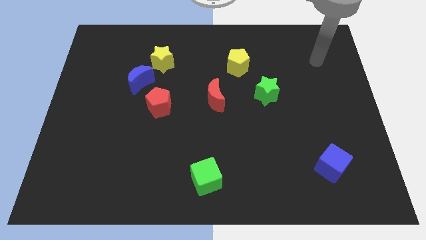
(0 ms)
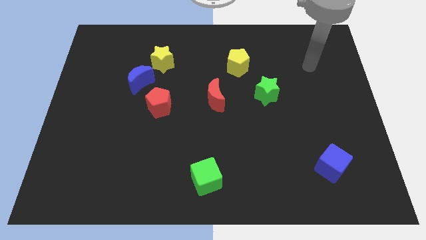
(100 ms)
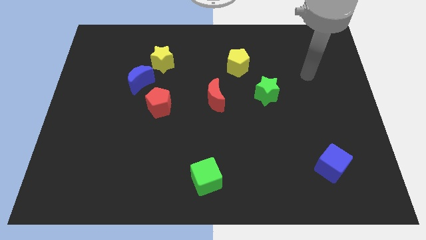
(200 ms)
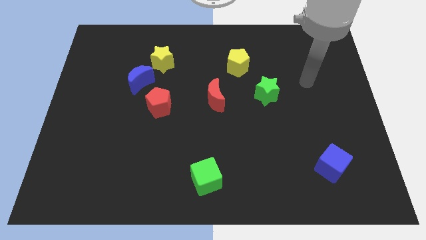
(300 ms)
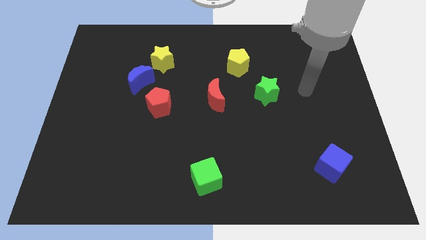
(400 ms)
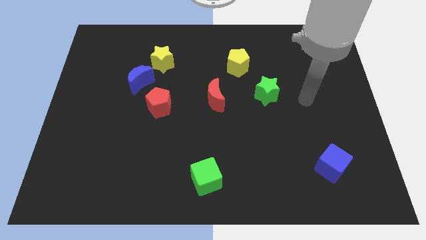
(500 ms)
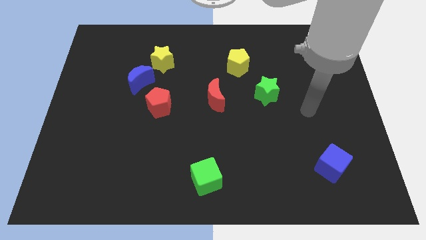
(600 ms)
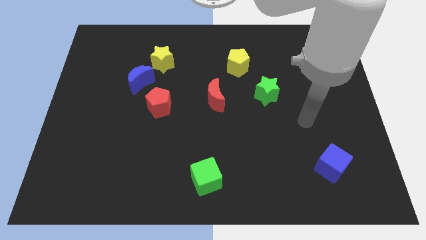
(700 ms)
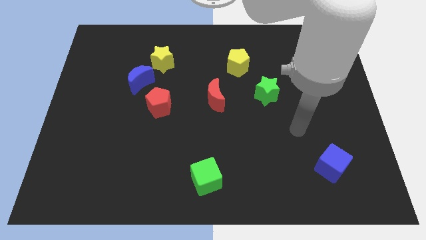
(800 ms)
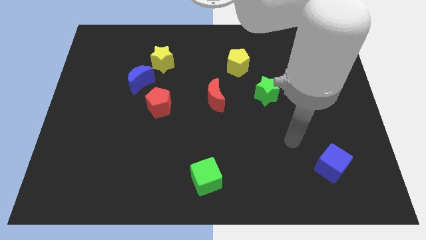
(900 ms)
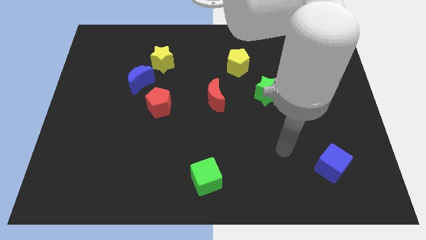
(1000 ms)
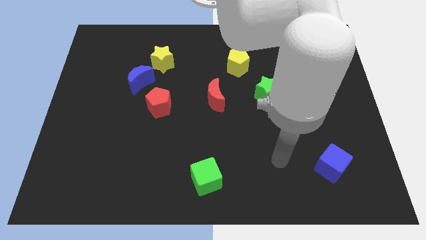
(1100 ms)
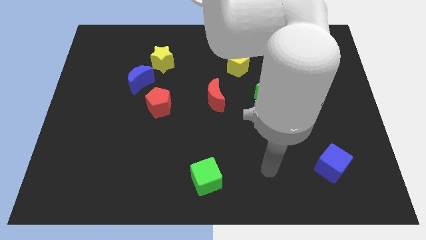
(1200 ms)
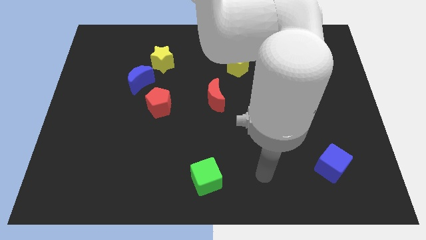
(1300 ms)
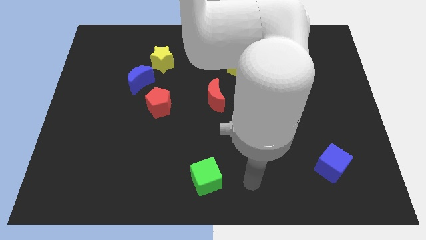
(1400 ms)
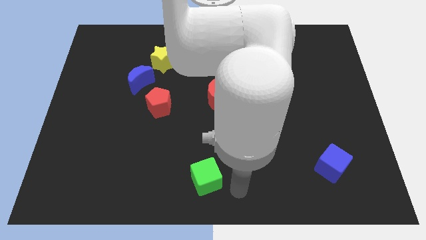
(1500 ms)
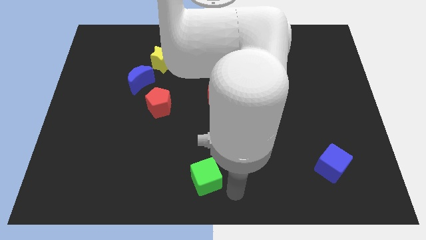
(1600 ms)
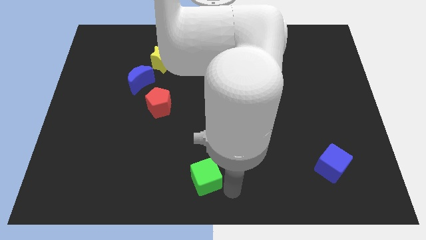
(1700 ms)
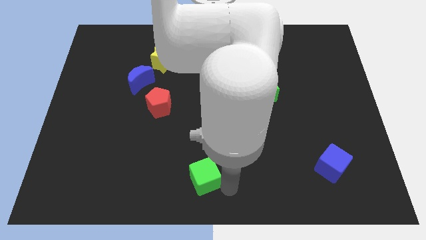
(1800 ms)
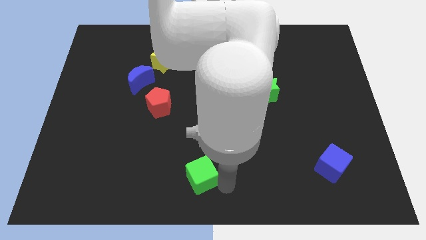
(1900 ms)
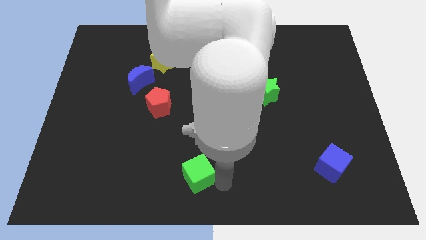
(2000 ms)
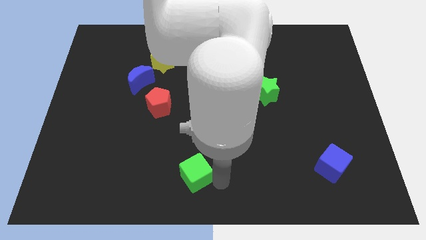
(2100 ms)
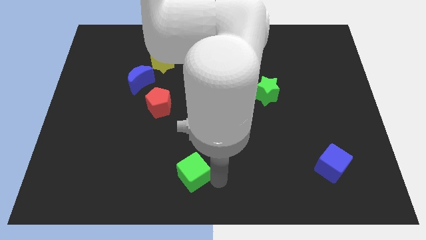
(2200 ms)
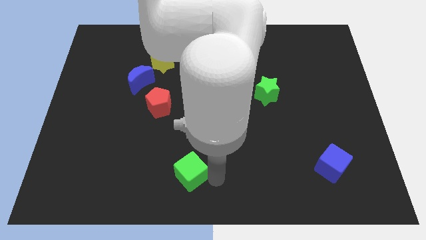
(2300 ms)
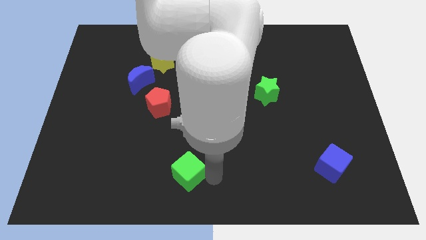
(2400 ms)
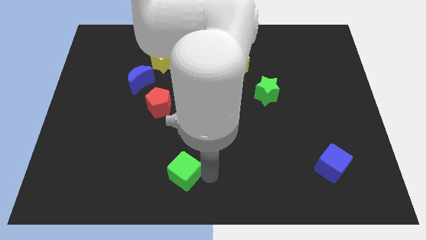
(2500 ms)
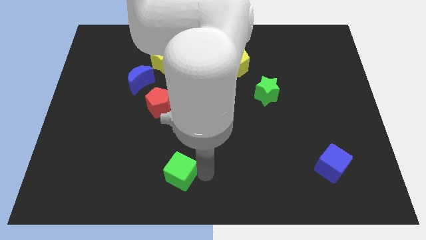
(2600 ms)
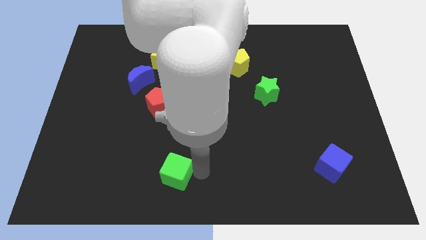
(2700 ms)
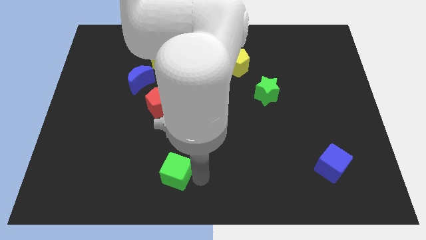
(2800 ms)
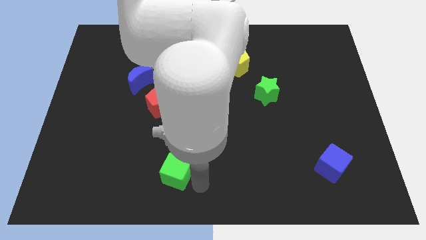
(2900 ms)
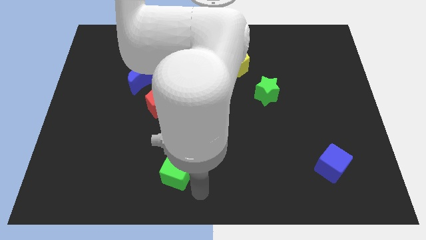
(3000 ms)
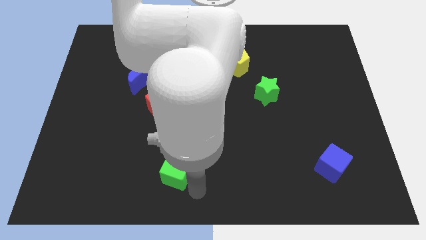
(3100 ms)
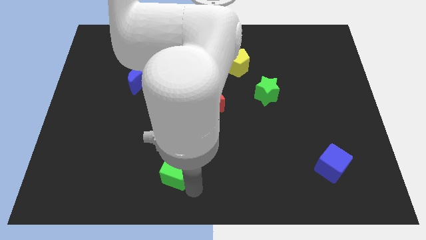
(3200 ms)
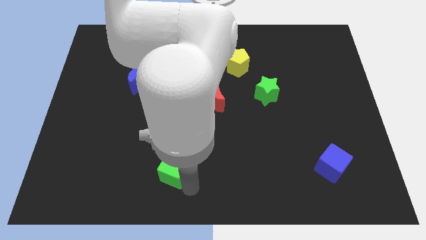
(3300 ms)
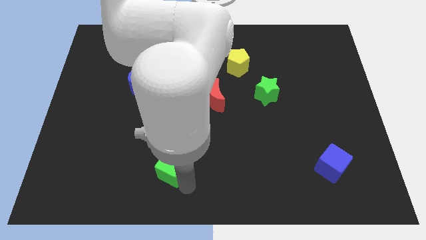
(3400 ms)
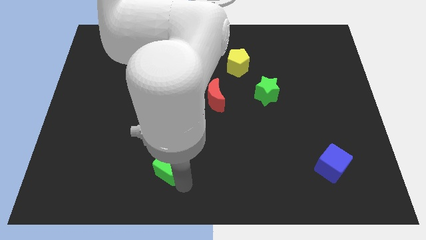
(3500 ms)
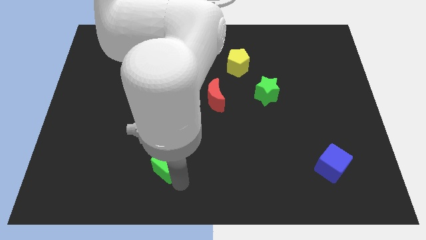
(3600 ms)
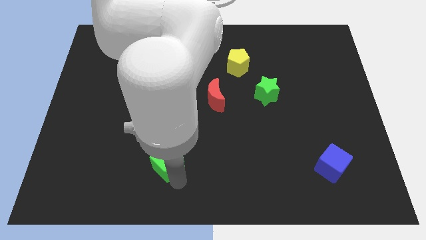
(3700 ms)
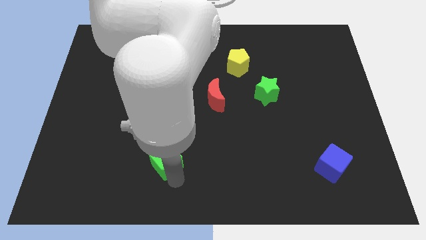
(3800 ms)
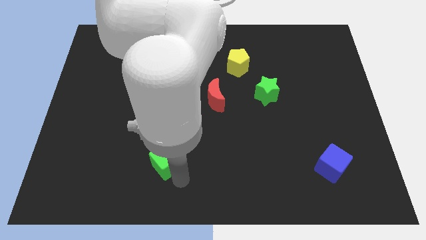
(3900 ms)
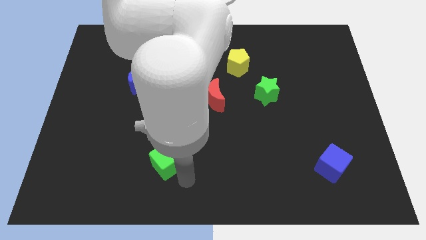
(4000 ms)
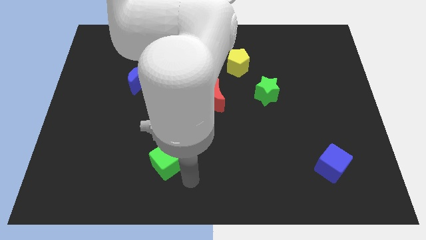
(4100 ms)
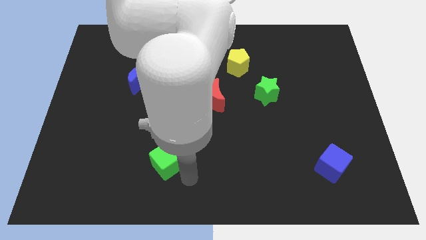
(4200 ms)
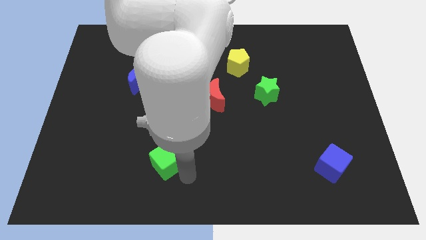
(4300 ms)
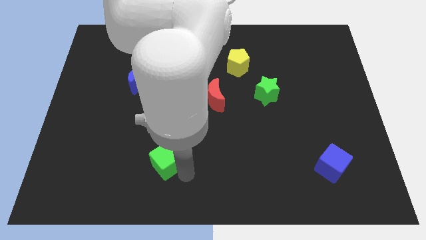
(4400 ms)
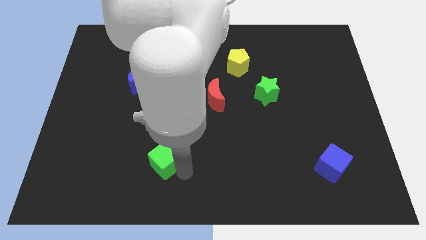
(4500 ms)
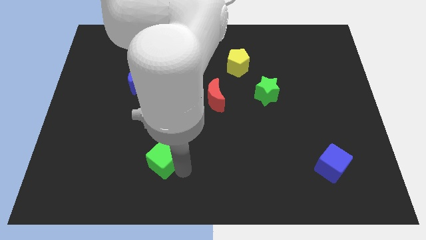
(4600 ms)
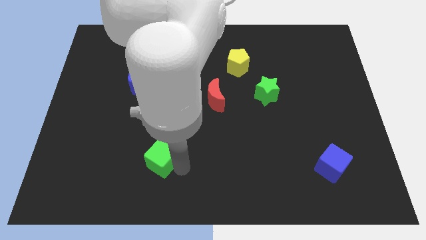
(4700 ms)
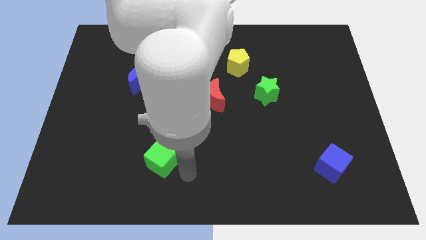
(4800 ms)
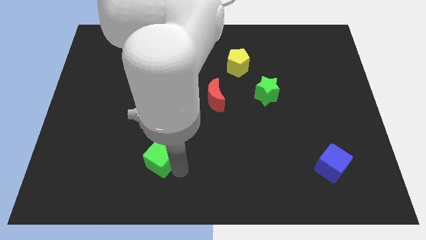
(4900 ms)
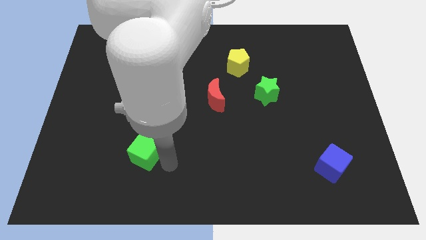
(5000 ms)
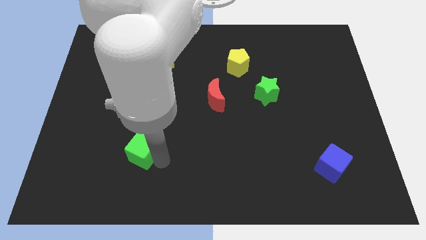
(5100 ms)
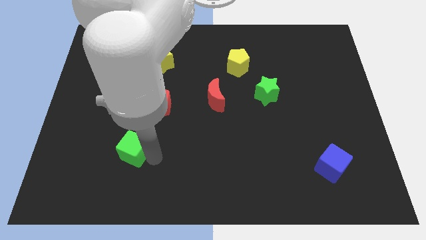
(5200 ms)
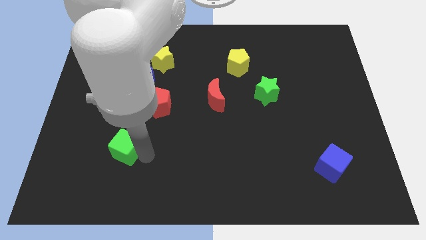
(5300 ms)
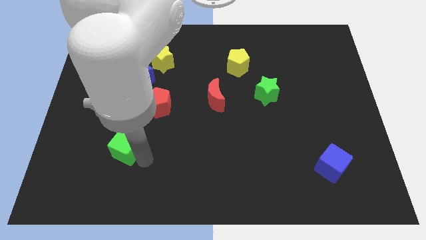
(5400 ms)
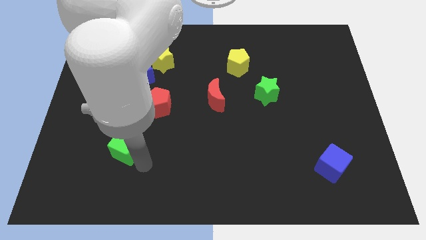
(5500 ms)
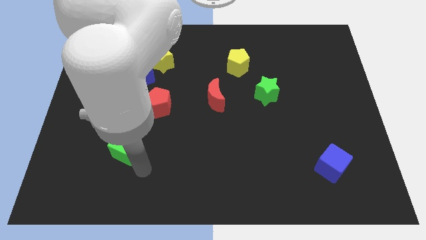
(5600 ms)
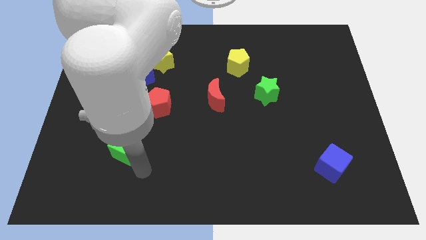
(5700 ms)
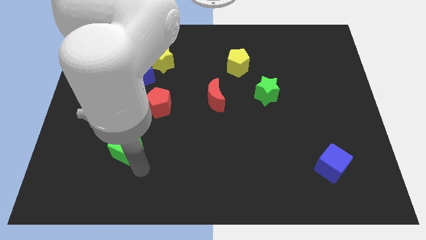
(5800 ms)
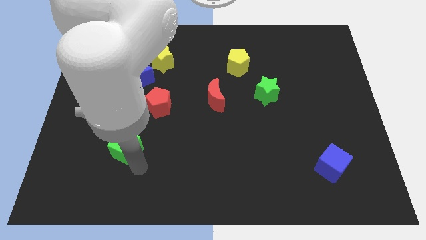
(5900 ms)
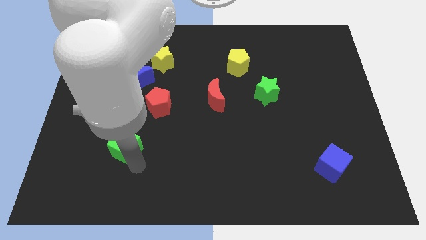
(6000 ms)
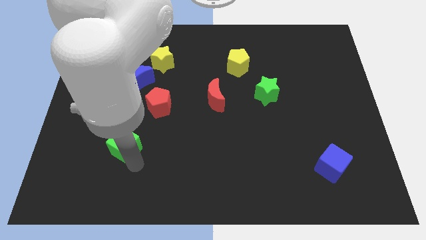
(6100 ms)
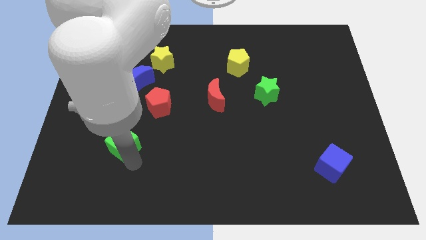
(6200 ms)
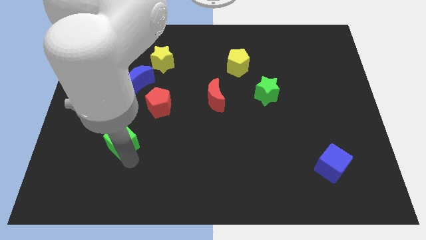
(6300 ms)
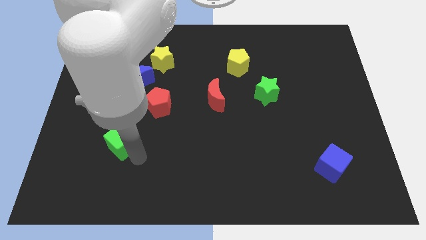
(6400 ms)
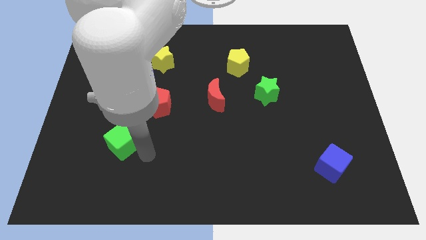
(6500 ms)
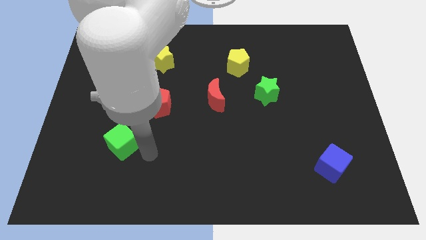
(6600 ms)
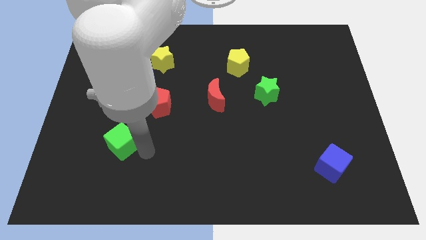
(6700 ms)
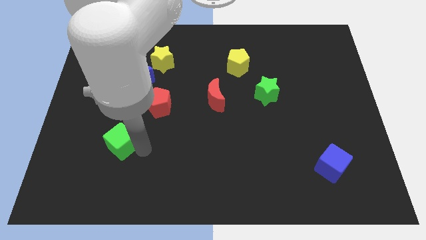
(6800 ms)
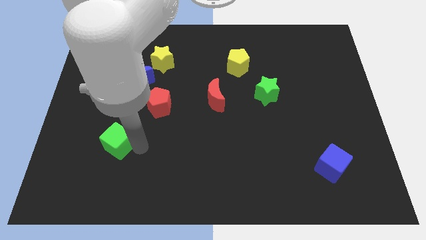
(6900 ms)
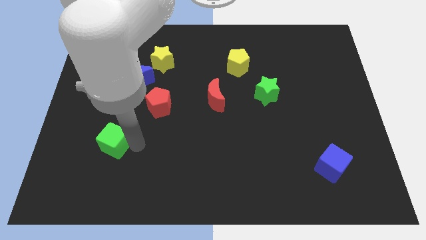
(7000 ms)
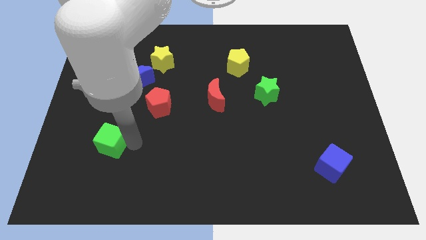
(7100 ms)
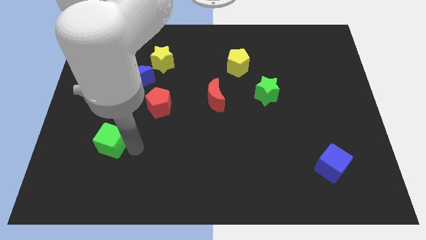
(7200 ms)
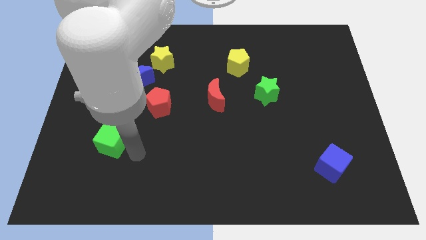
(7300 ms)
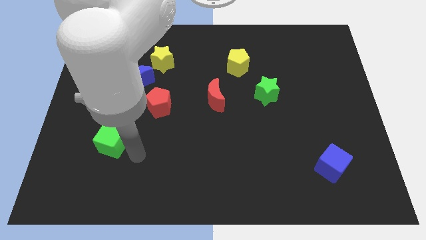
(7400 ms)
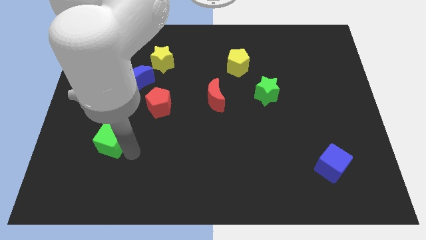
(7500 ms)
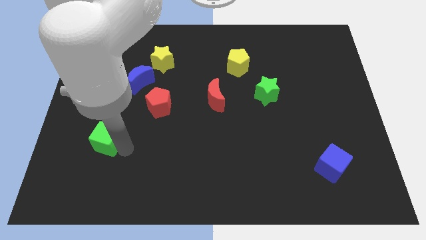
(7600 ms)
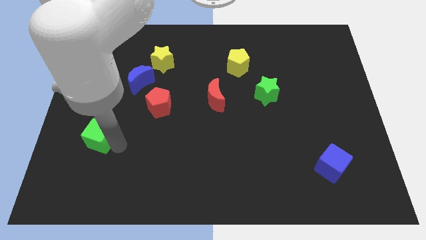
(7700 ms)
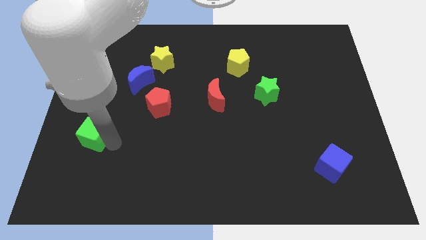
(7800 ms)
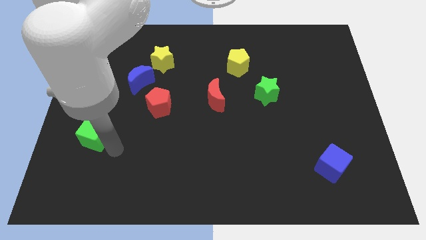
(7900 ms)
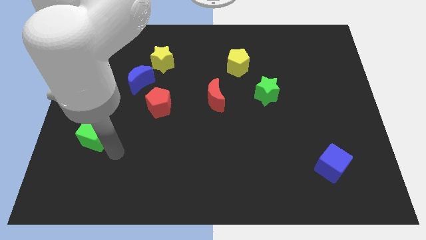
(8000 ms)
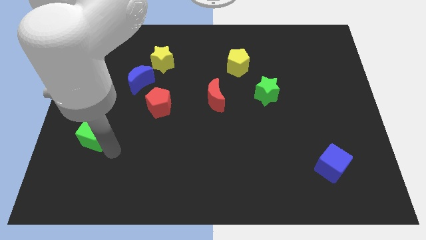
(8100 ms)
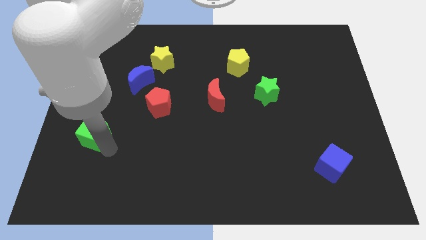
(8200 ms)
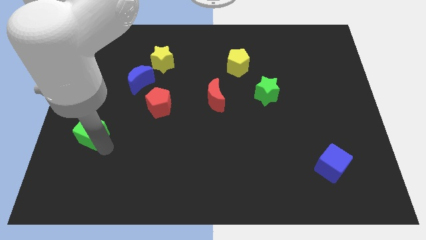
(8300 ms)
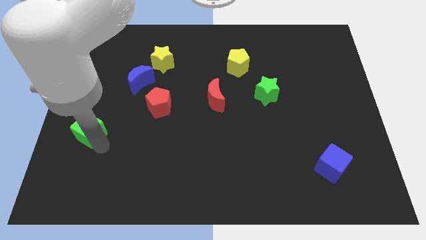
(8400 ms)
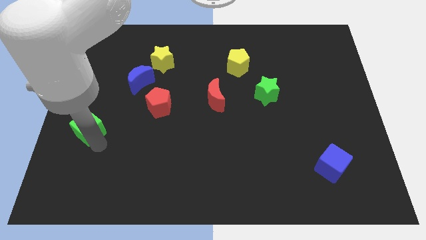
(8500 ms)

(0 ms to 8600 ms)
put the green cube to the left side of the board

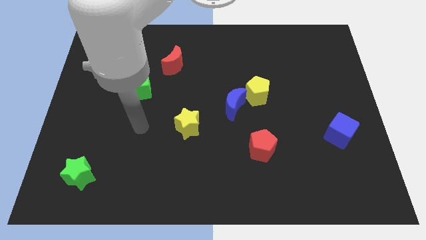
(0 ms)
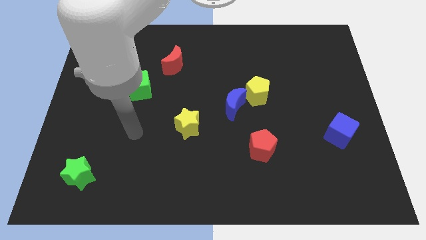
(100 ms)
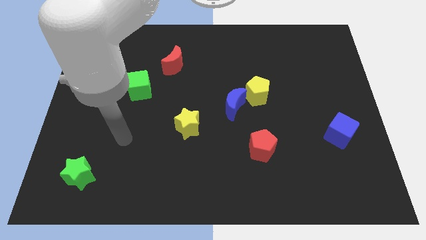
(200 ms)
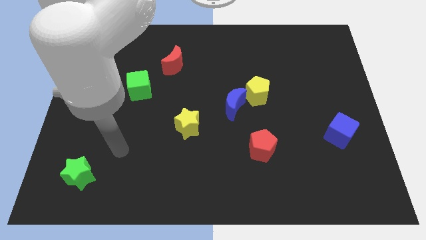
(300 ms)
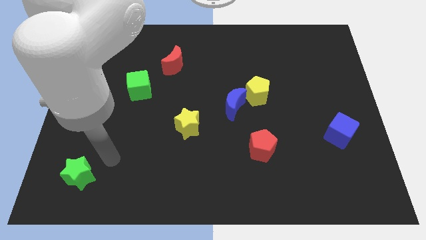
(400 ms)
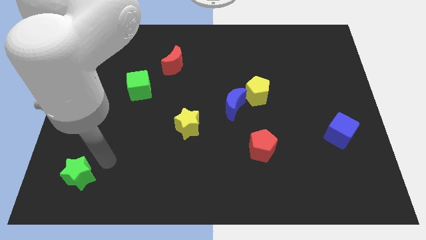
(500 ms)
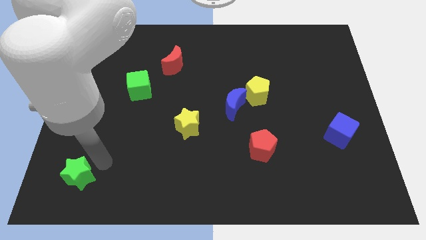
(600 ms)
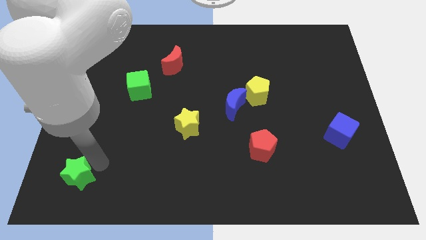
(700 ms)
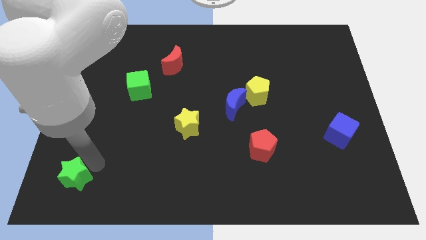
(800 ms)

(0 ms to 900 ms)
put the green star to the bottom left corner
